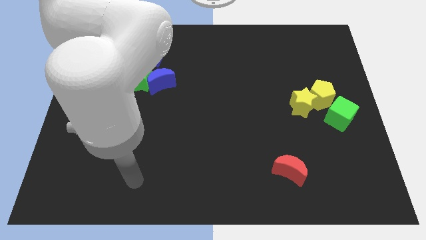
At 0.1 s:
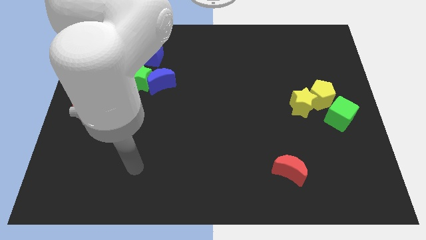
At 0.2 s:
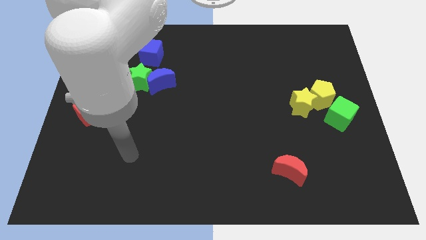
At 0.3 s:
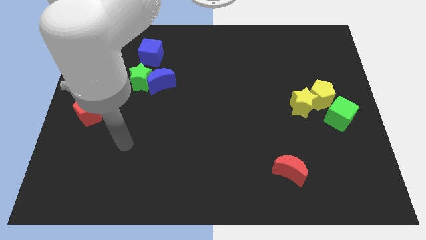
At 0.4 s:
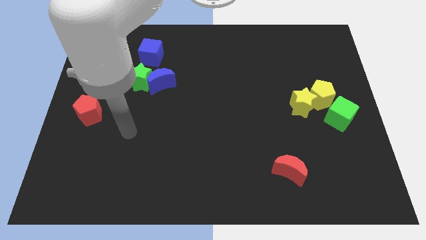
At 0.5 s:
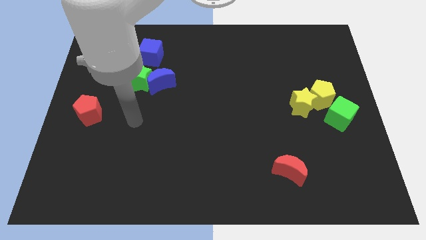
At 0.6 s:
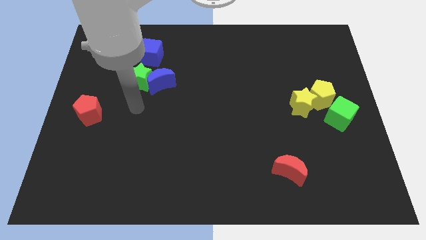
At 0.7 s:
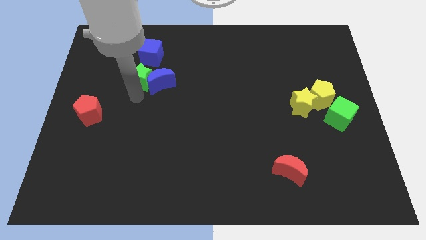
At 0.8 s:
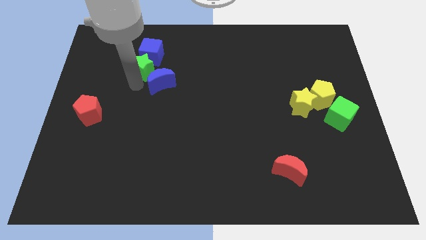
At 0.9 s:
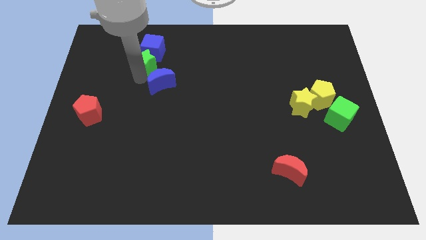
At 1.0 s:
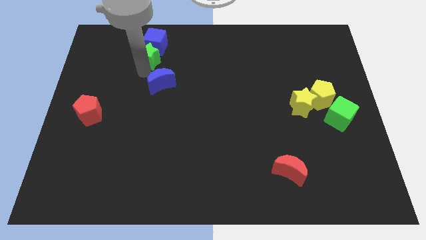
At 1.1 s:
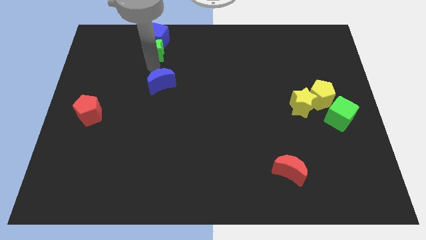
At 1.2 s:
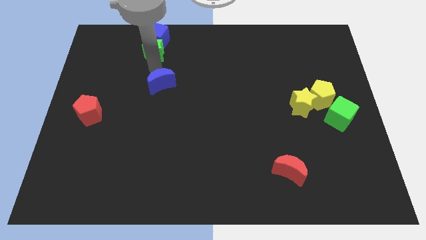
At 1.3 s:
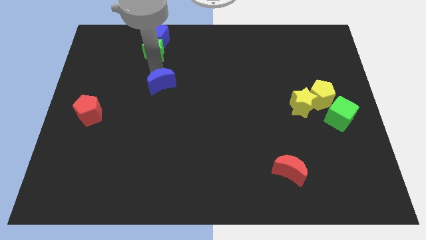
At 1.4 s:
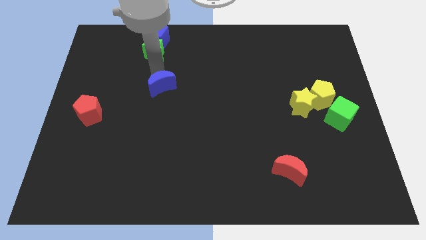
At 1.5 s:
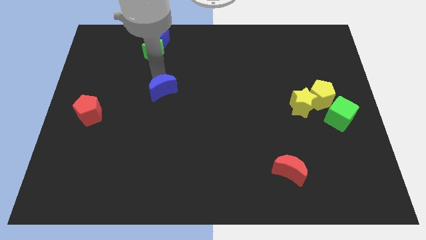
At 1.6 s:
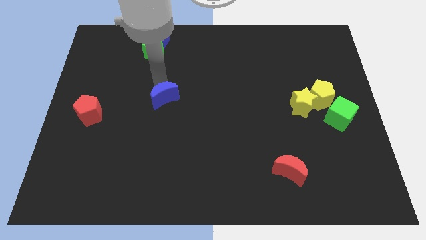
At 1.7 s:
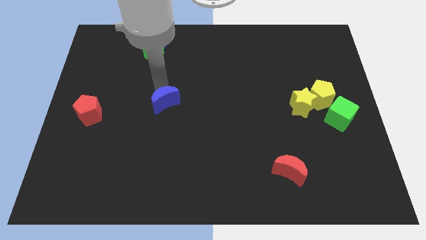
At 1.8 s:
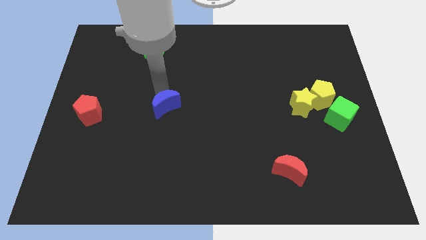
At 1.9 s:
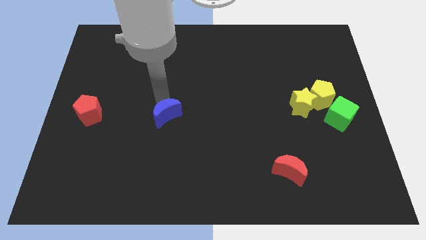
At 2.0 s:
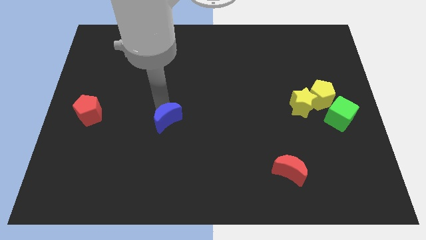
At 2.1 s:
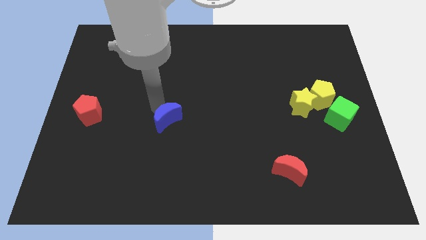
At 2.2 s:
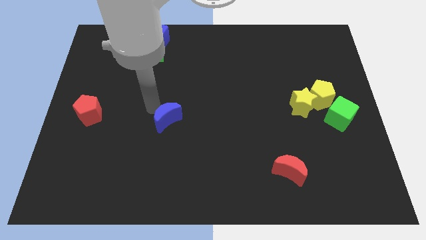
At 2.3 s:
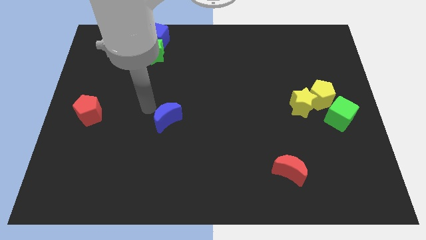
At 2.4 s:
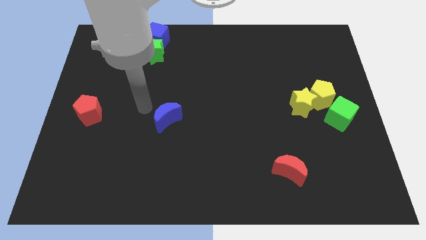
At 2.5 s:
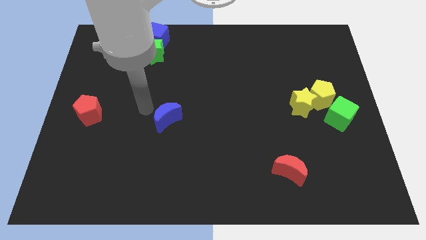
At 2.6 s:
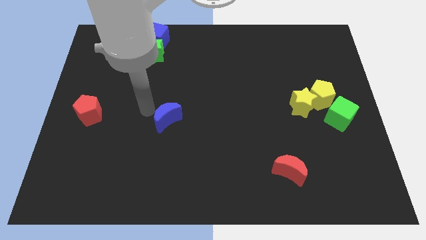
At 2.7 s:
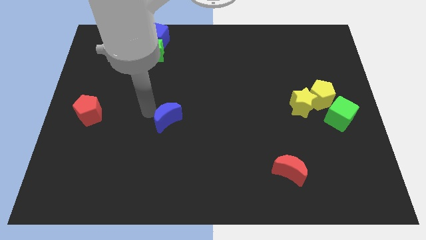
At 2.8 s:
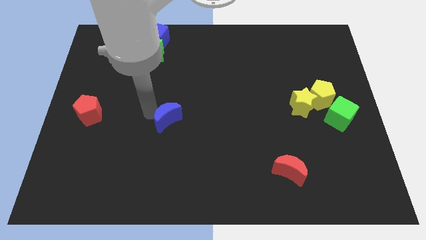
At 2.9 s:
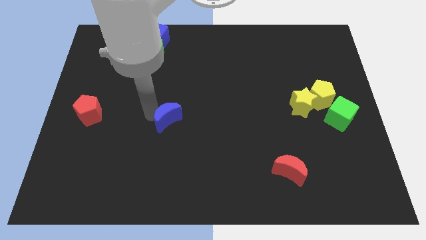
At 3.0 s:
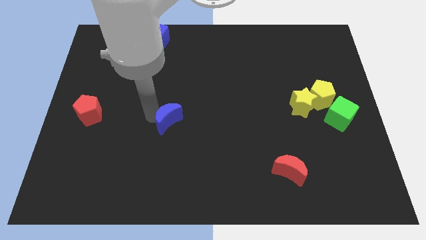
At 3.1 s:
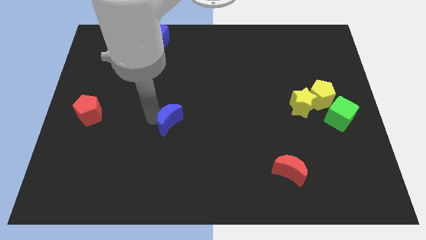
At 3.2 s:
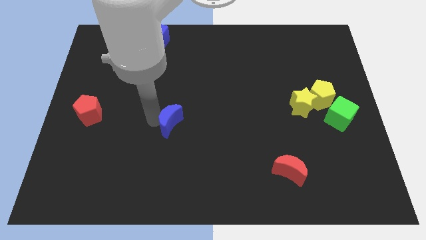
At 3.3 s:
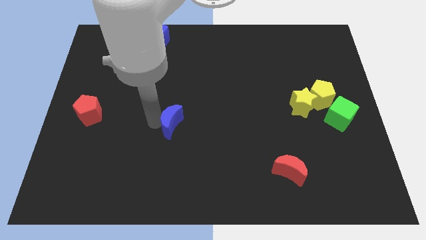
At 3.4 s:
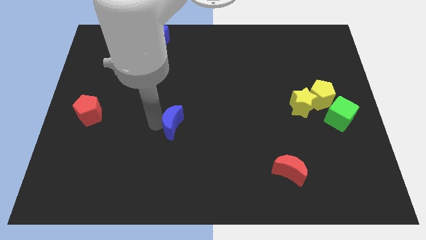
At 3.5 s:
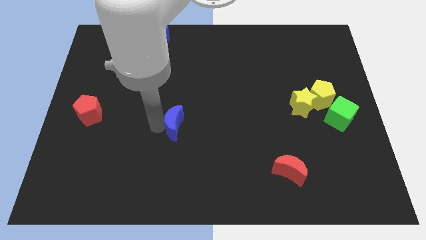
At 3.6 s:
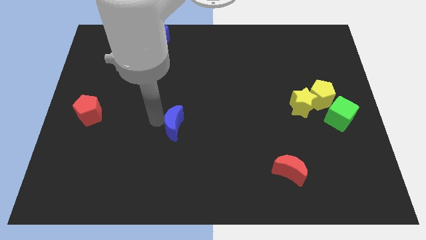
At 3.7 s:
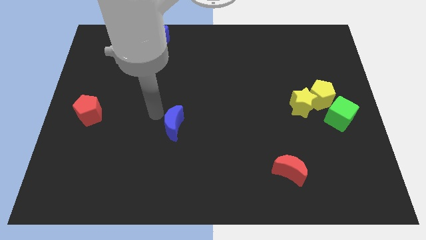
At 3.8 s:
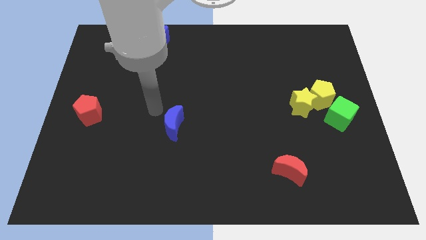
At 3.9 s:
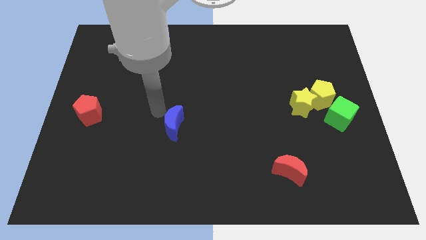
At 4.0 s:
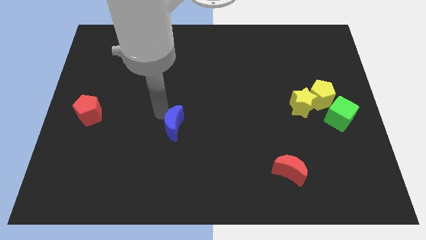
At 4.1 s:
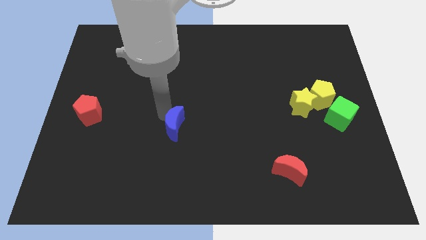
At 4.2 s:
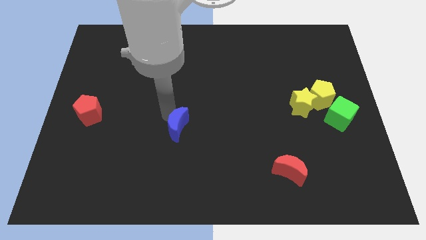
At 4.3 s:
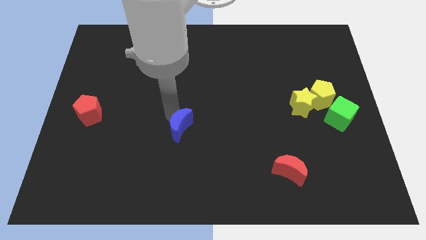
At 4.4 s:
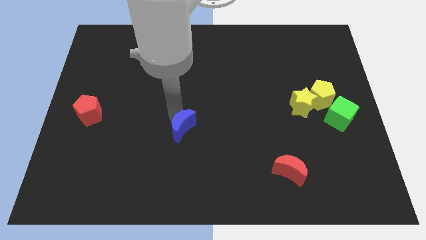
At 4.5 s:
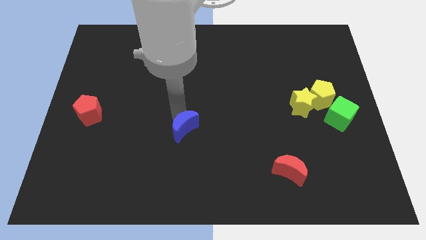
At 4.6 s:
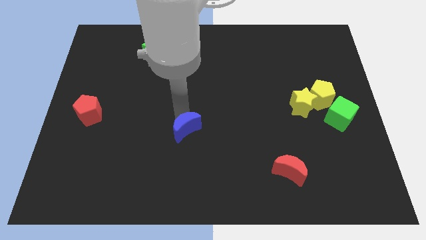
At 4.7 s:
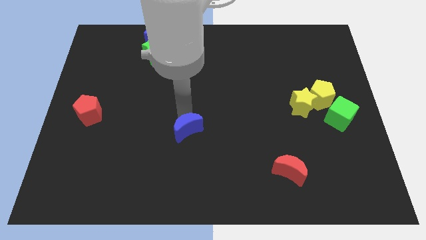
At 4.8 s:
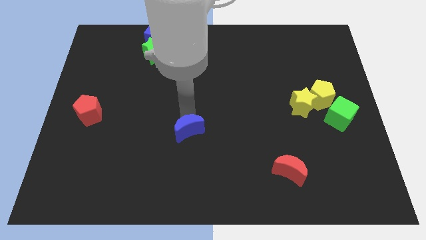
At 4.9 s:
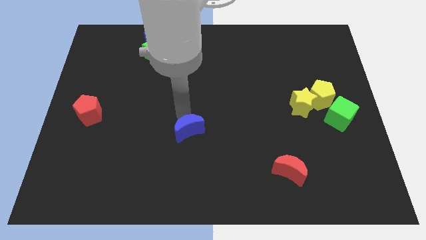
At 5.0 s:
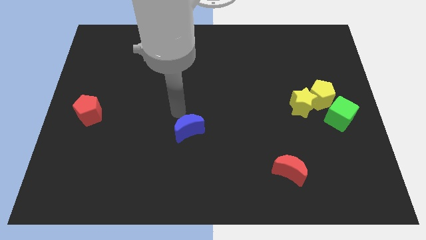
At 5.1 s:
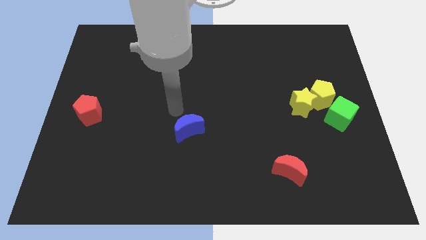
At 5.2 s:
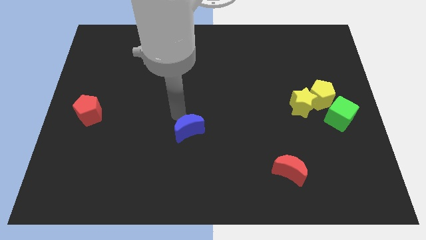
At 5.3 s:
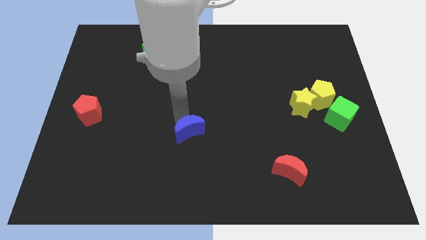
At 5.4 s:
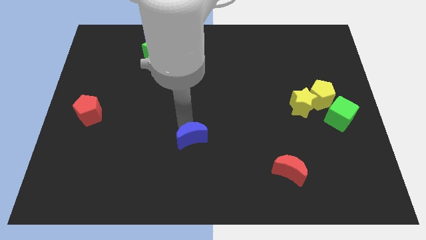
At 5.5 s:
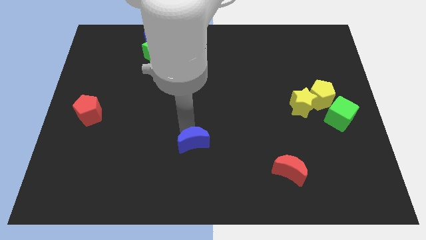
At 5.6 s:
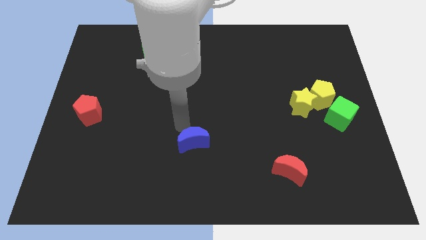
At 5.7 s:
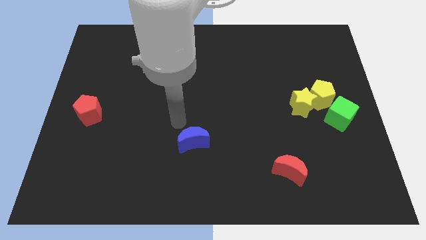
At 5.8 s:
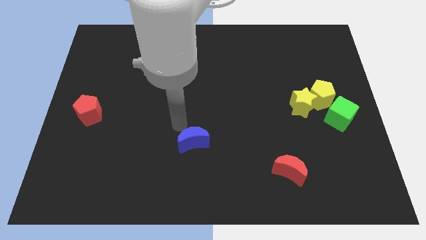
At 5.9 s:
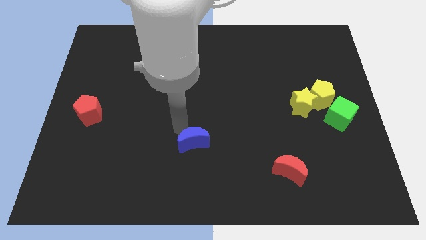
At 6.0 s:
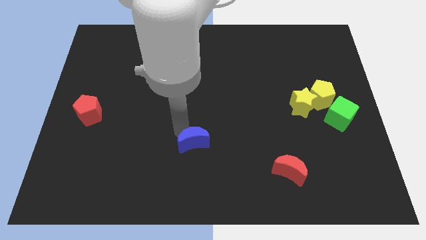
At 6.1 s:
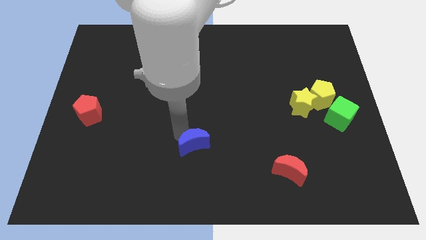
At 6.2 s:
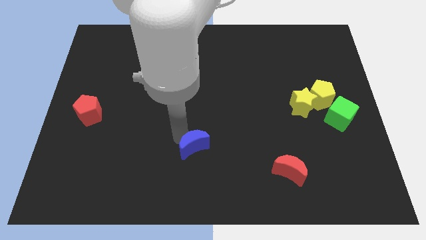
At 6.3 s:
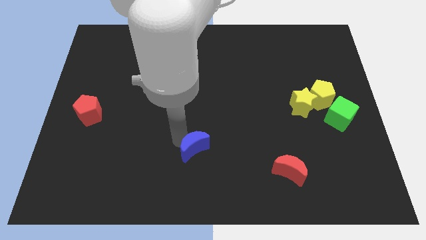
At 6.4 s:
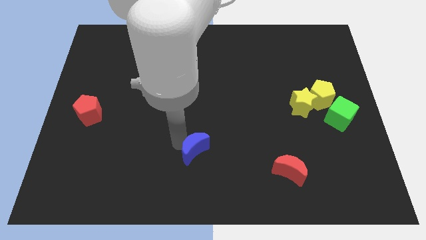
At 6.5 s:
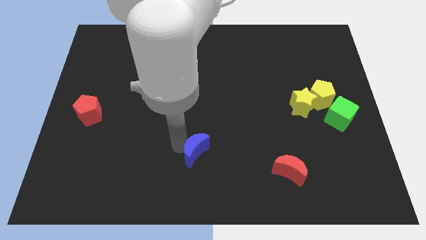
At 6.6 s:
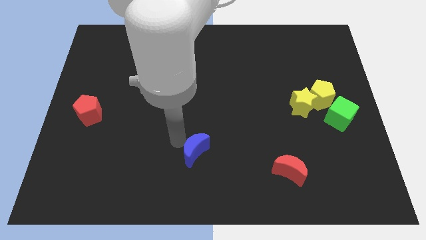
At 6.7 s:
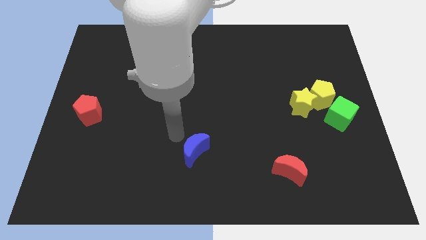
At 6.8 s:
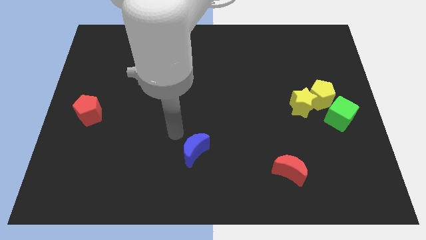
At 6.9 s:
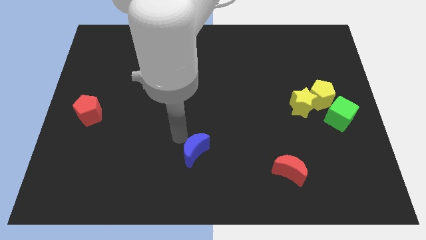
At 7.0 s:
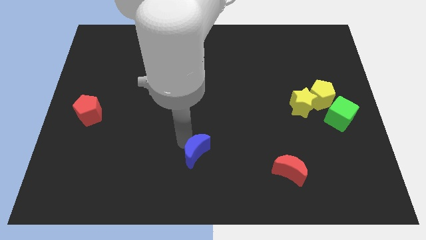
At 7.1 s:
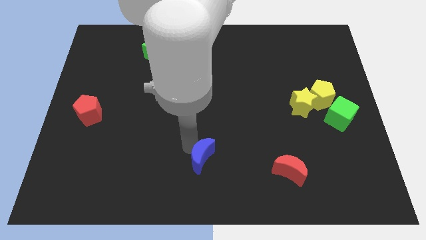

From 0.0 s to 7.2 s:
push the blue moon to the bottom
